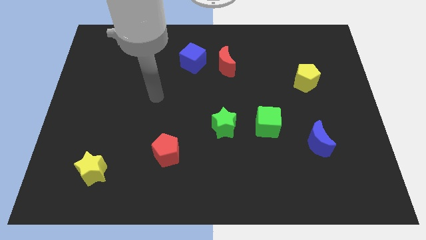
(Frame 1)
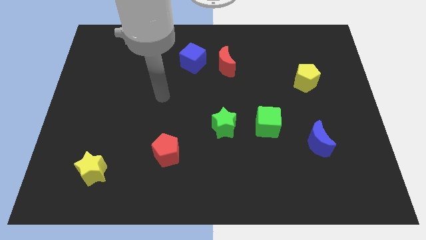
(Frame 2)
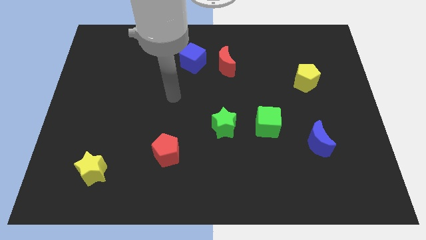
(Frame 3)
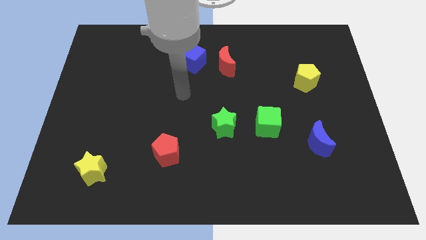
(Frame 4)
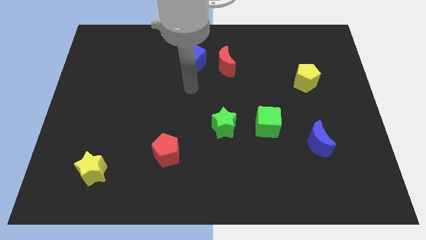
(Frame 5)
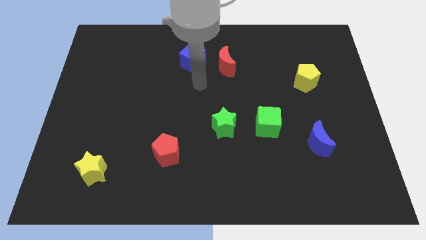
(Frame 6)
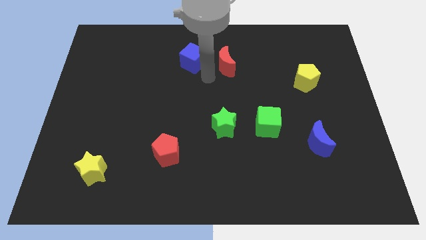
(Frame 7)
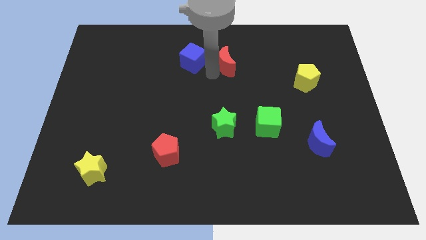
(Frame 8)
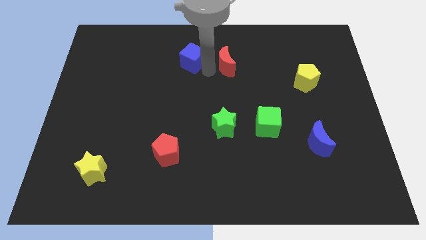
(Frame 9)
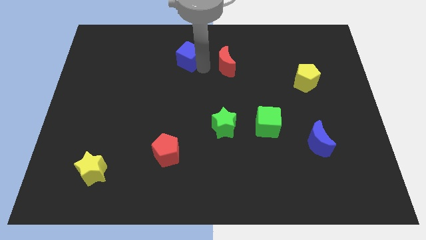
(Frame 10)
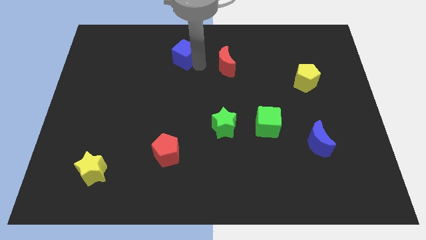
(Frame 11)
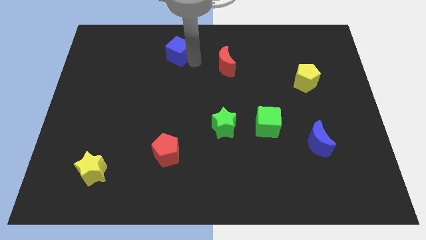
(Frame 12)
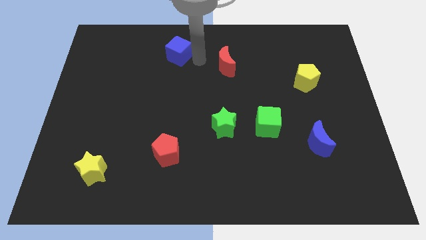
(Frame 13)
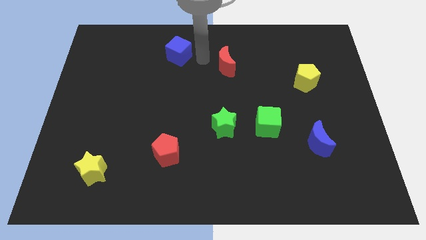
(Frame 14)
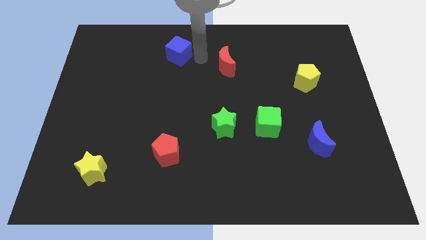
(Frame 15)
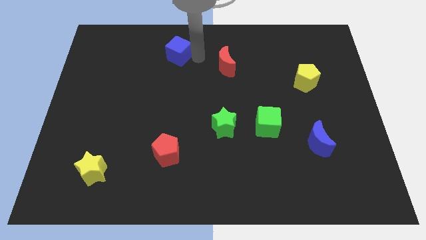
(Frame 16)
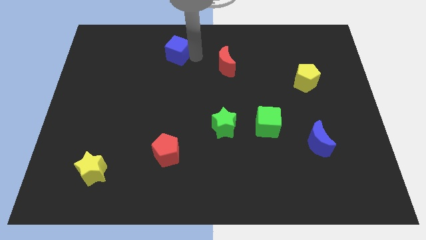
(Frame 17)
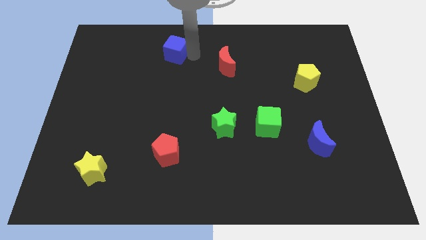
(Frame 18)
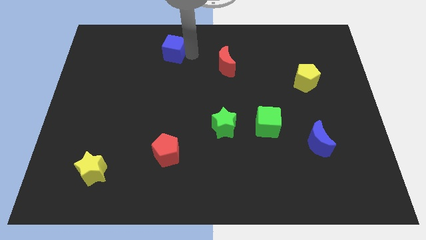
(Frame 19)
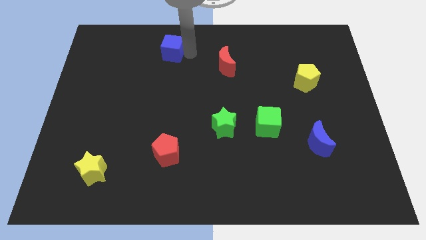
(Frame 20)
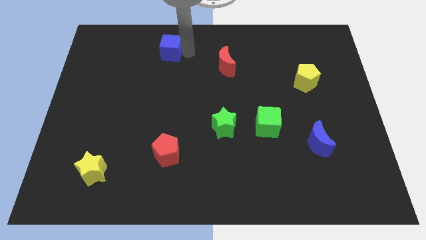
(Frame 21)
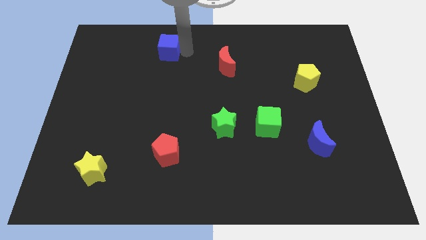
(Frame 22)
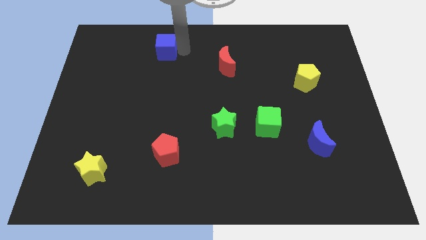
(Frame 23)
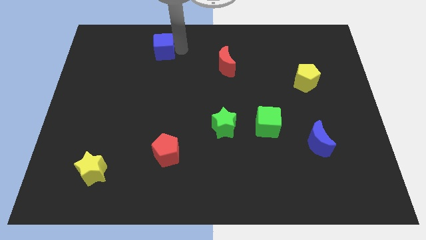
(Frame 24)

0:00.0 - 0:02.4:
move the blue cube a little to the left

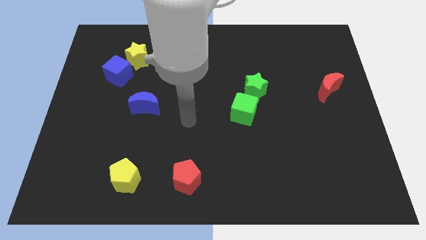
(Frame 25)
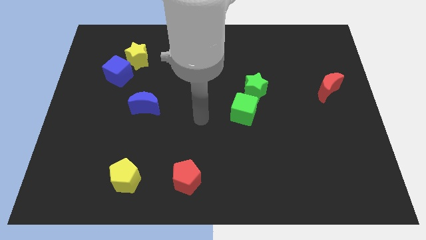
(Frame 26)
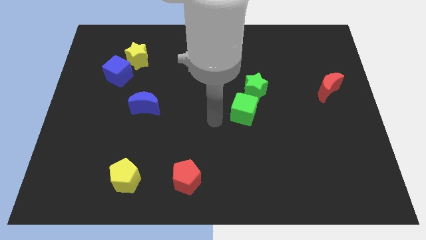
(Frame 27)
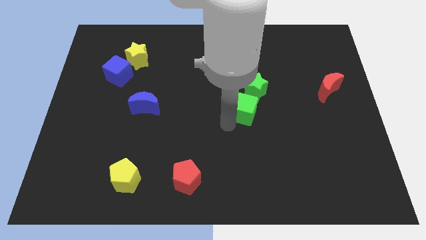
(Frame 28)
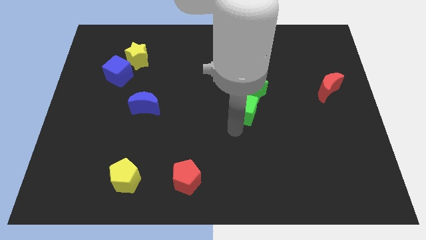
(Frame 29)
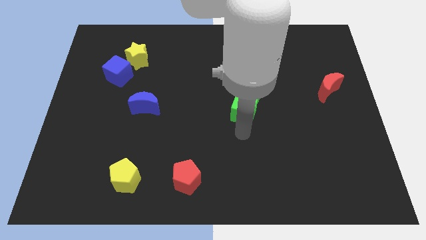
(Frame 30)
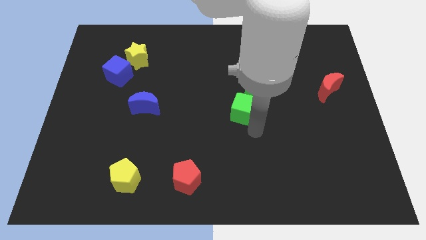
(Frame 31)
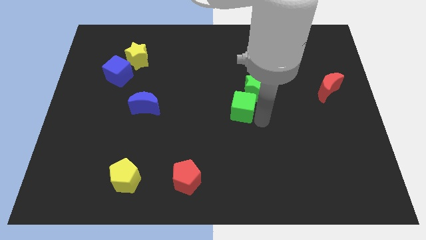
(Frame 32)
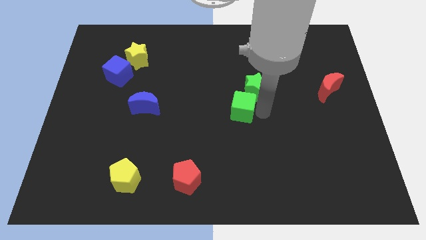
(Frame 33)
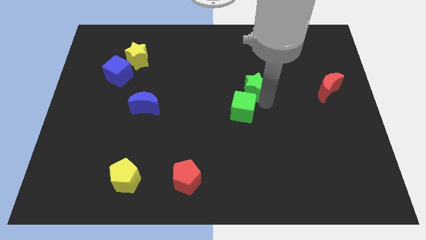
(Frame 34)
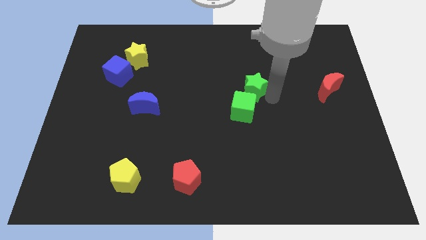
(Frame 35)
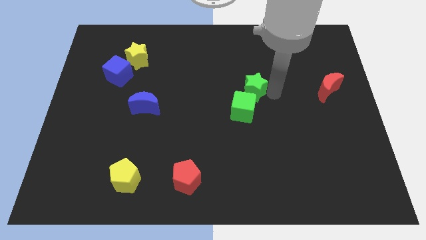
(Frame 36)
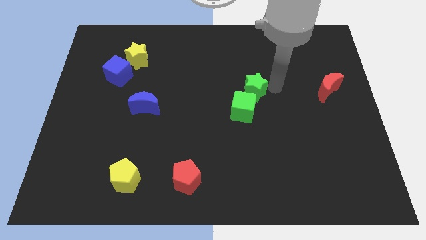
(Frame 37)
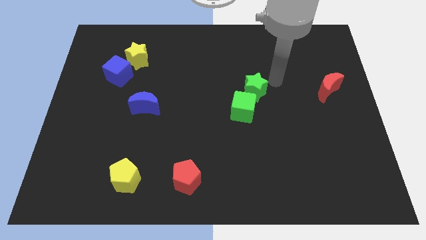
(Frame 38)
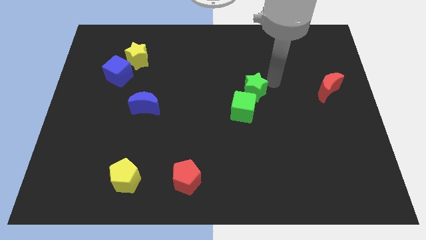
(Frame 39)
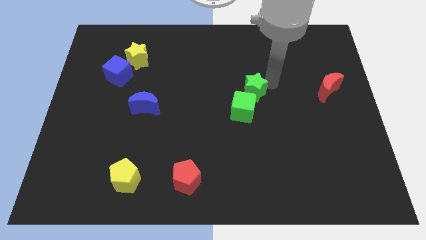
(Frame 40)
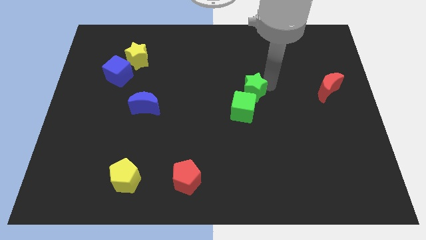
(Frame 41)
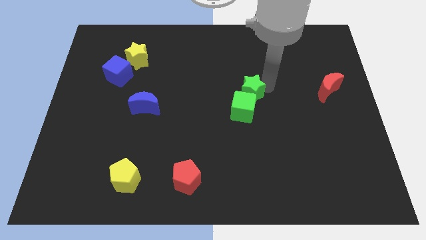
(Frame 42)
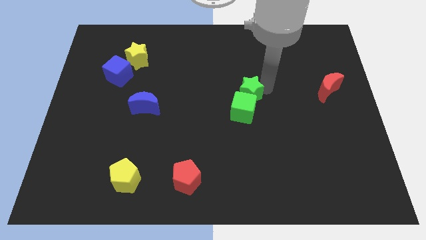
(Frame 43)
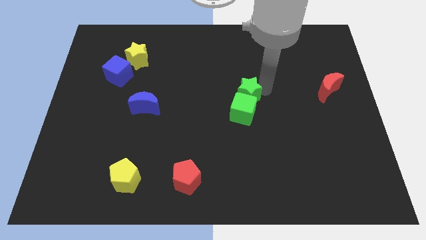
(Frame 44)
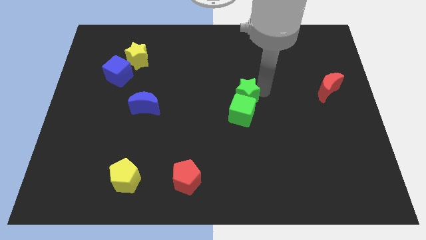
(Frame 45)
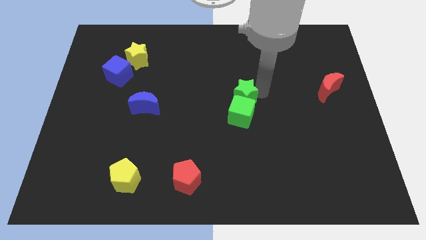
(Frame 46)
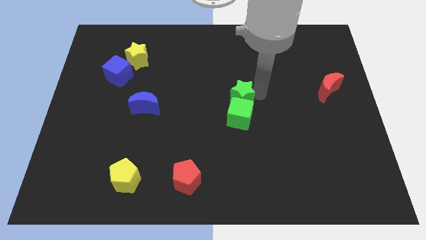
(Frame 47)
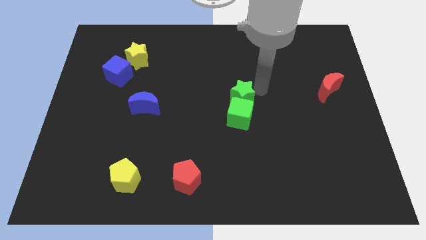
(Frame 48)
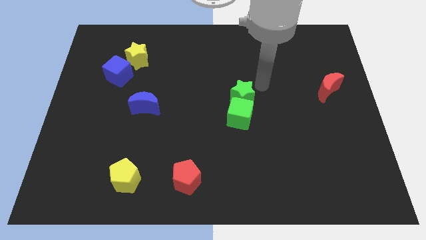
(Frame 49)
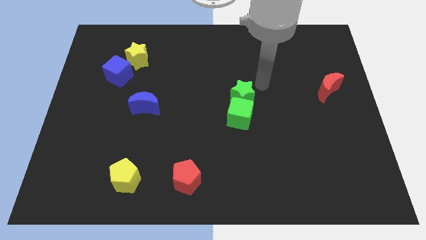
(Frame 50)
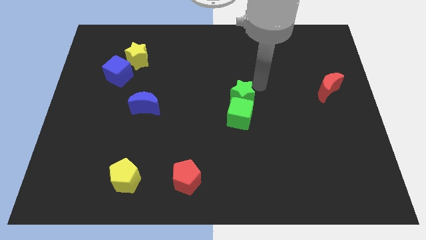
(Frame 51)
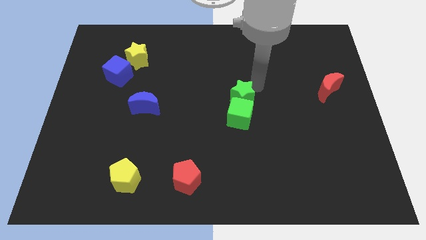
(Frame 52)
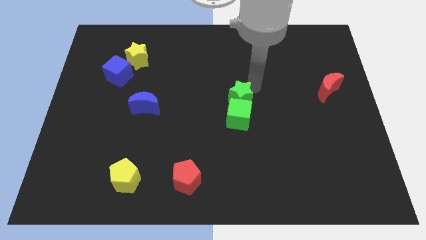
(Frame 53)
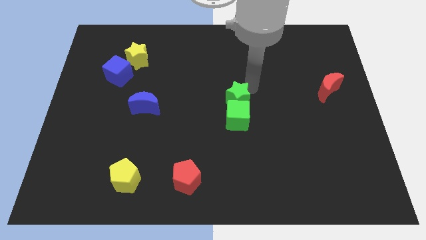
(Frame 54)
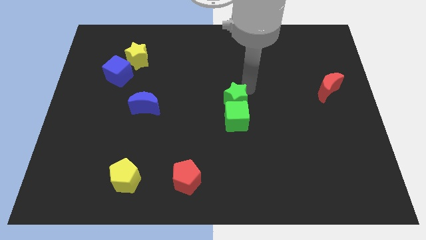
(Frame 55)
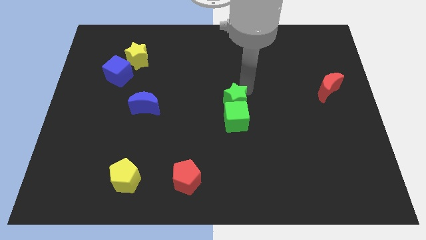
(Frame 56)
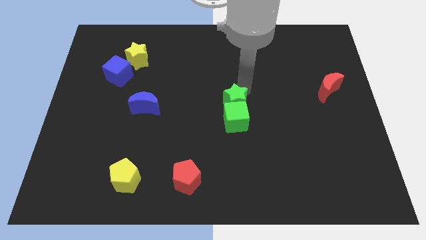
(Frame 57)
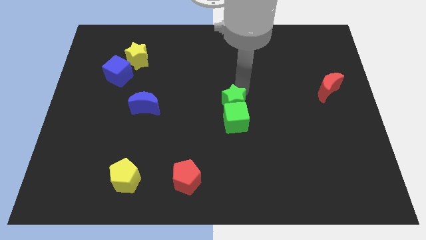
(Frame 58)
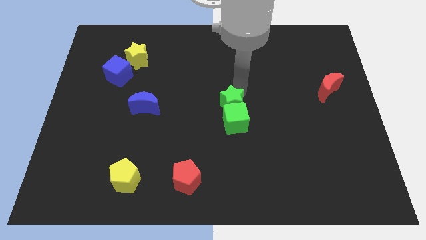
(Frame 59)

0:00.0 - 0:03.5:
slightly push the green star diagonally downwards and left

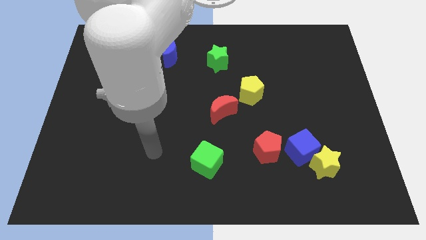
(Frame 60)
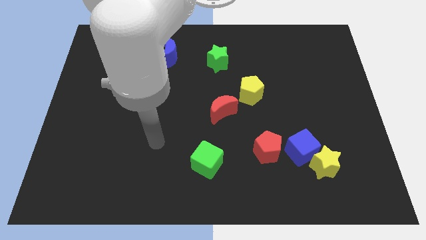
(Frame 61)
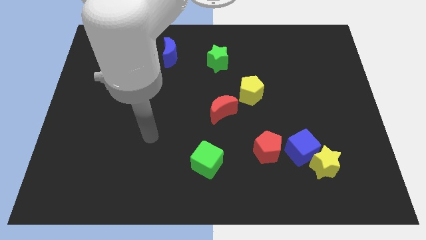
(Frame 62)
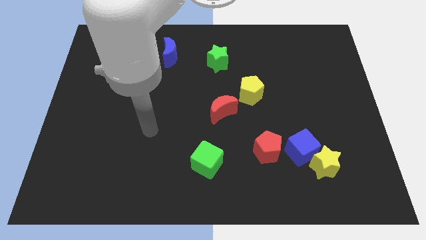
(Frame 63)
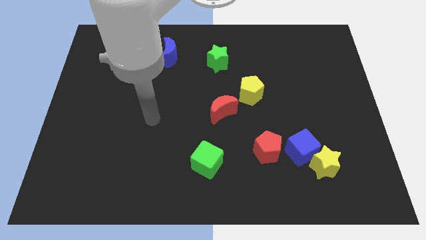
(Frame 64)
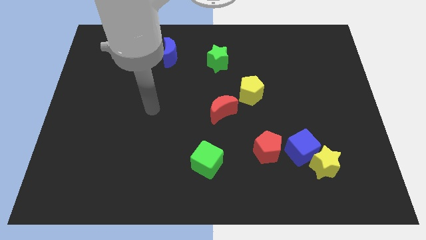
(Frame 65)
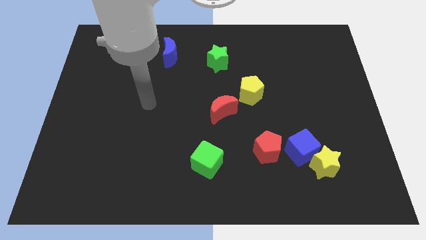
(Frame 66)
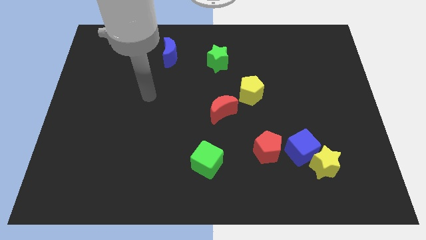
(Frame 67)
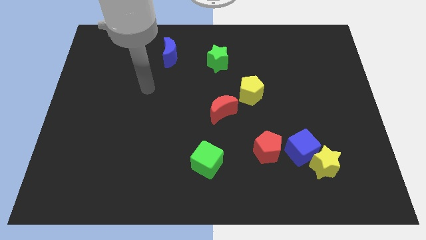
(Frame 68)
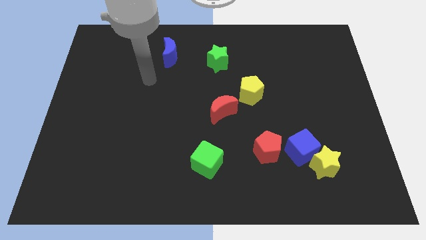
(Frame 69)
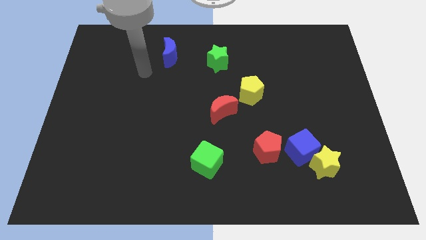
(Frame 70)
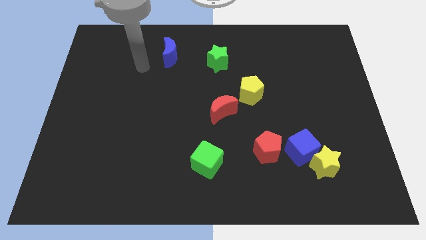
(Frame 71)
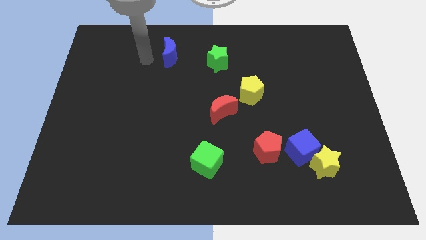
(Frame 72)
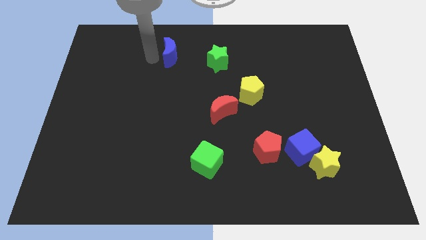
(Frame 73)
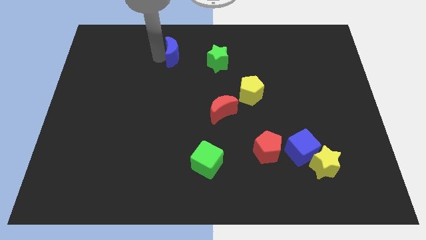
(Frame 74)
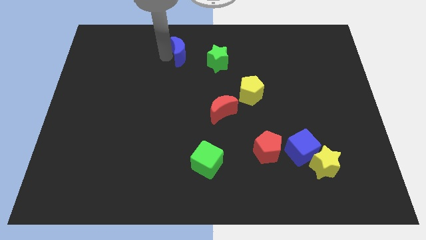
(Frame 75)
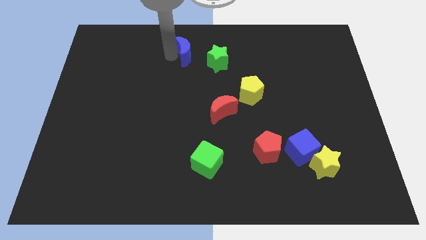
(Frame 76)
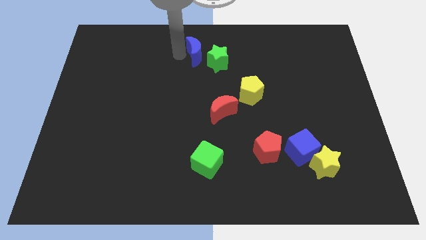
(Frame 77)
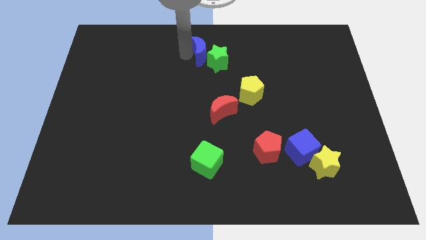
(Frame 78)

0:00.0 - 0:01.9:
slightly slide the blue moon to the right

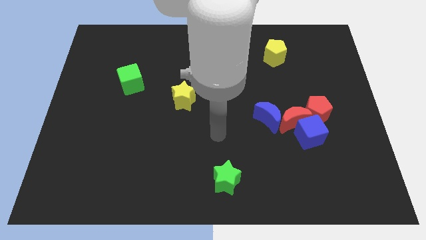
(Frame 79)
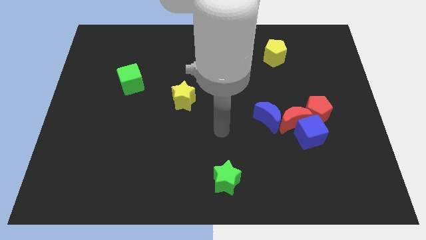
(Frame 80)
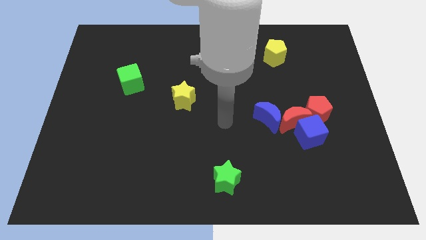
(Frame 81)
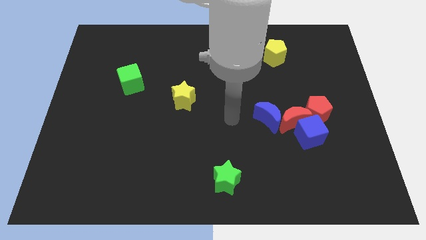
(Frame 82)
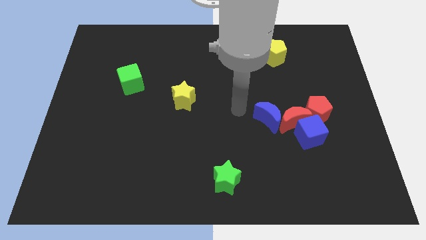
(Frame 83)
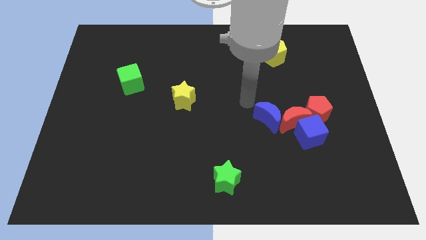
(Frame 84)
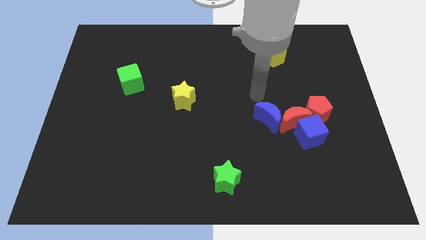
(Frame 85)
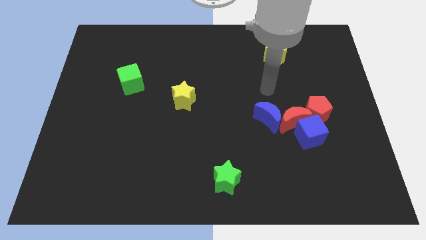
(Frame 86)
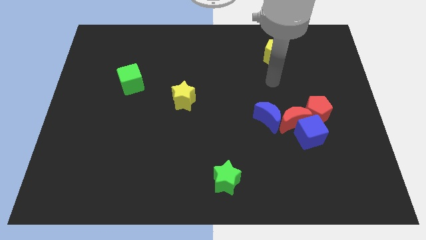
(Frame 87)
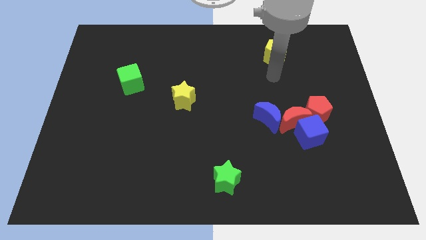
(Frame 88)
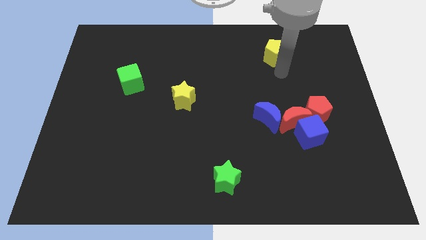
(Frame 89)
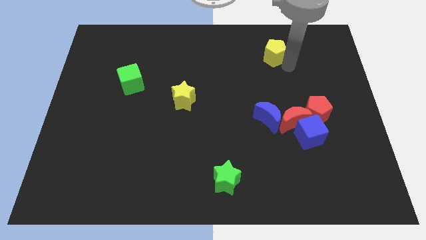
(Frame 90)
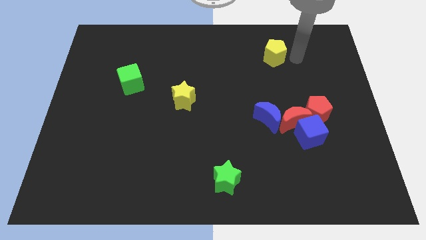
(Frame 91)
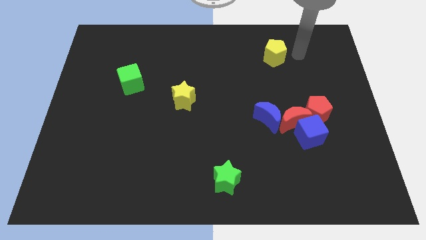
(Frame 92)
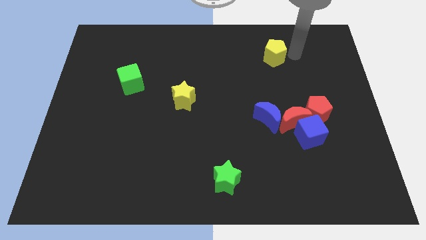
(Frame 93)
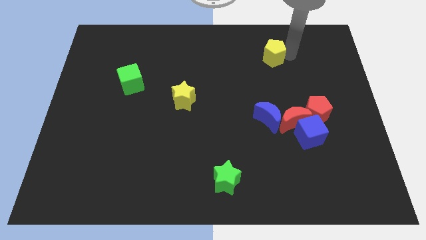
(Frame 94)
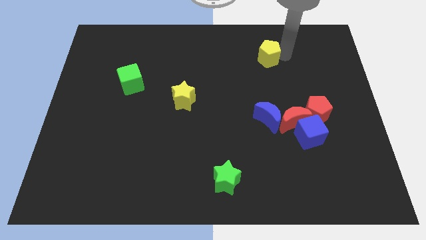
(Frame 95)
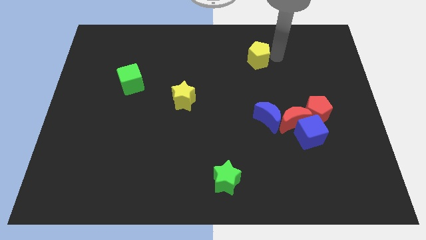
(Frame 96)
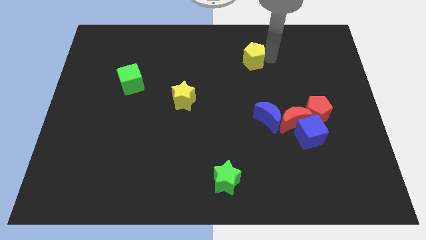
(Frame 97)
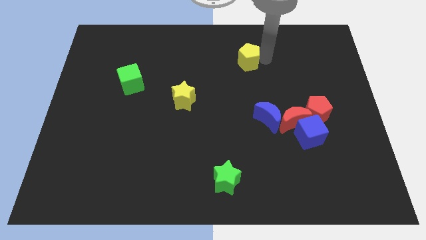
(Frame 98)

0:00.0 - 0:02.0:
push the yellow pentagon to the left a little bit
